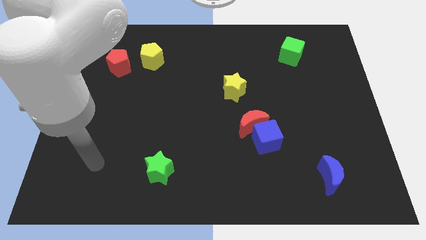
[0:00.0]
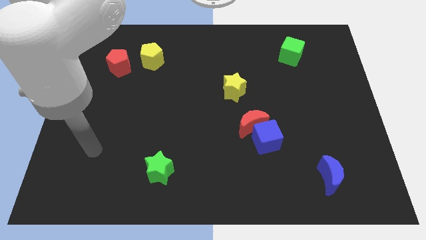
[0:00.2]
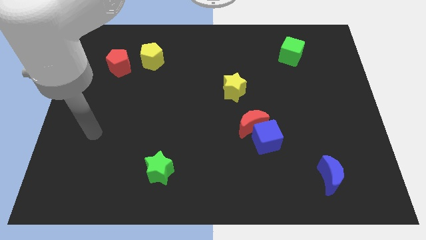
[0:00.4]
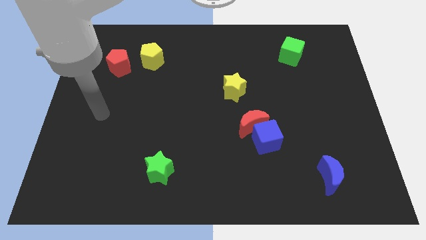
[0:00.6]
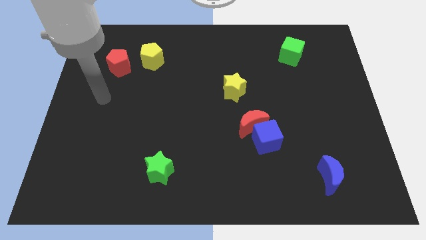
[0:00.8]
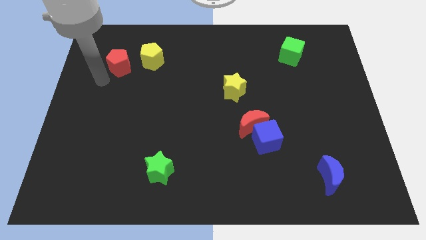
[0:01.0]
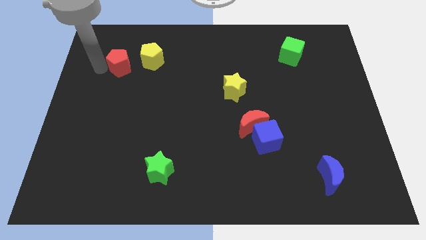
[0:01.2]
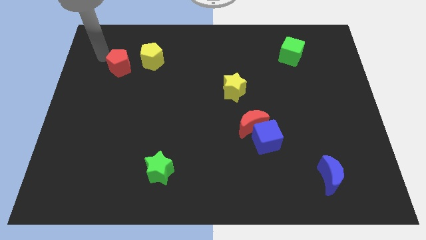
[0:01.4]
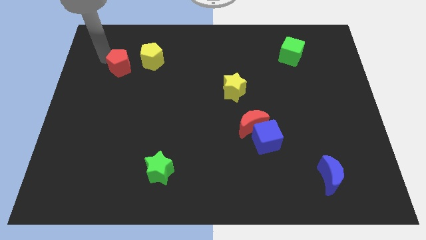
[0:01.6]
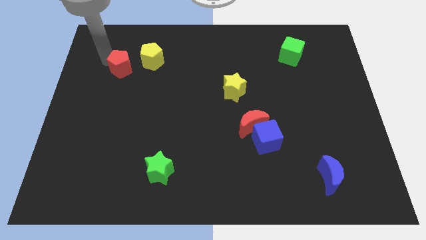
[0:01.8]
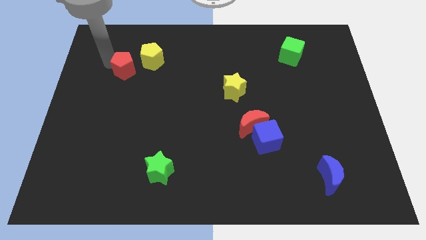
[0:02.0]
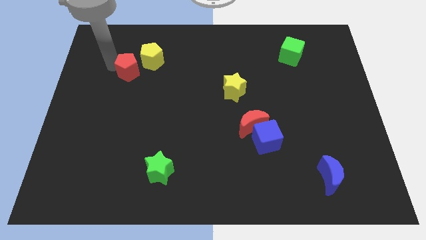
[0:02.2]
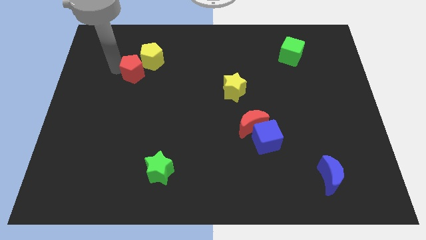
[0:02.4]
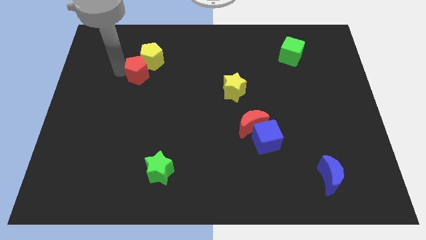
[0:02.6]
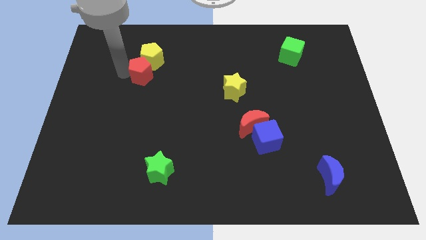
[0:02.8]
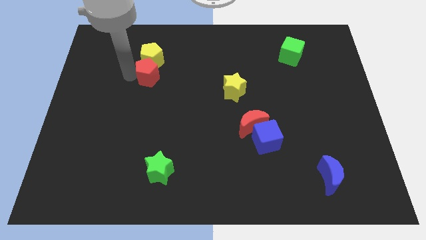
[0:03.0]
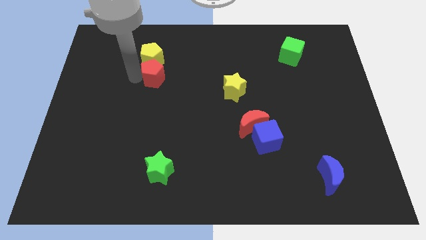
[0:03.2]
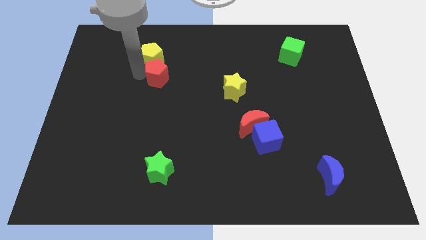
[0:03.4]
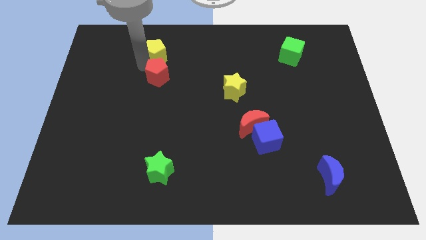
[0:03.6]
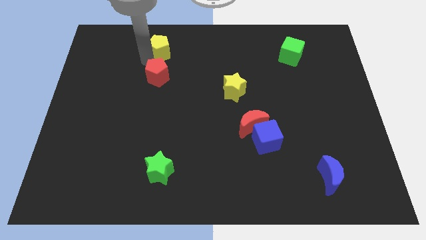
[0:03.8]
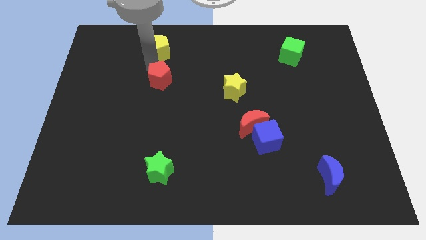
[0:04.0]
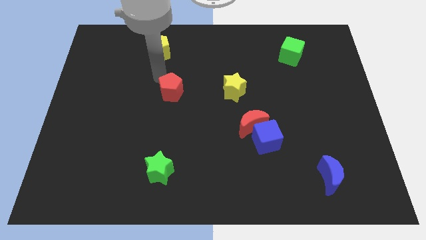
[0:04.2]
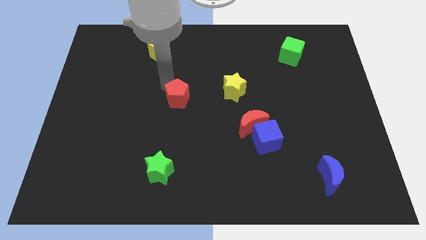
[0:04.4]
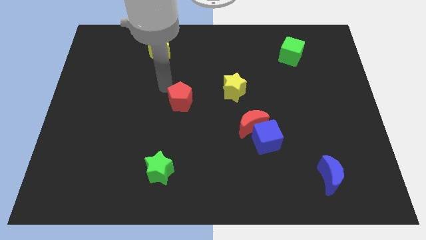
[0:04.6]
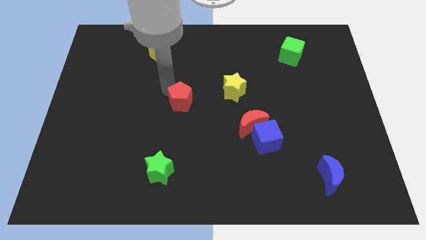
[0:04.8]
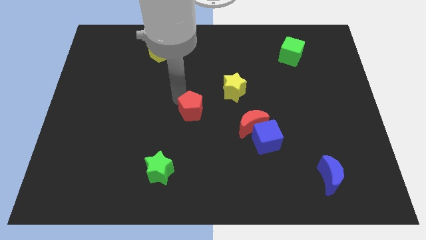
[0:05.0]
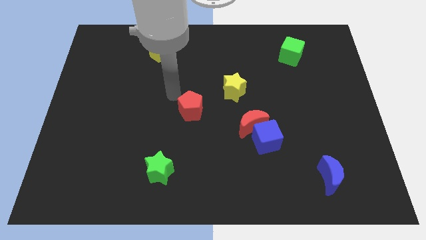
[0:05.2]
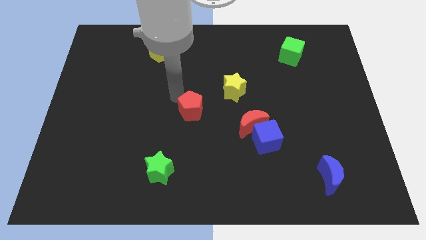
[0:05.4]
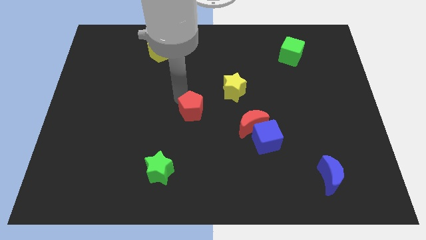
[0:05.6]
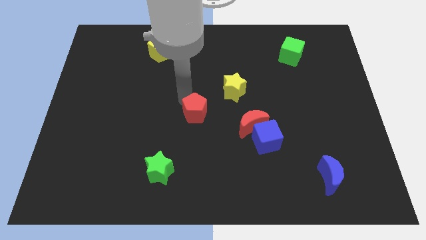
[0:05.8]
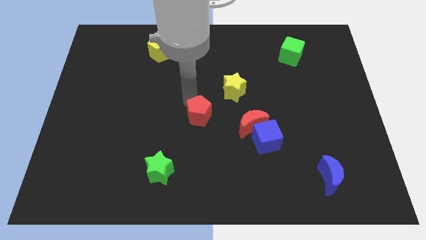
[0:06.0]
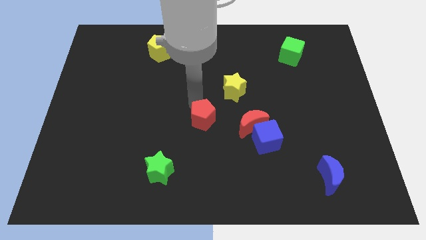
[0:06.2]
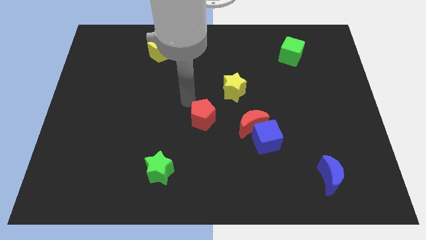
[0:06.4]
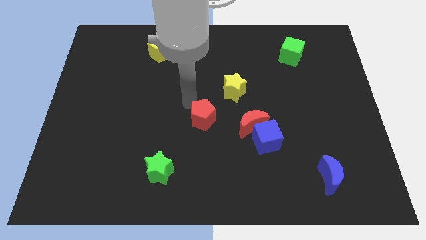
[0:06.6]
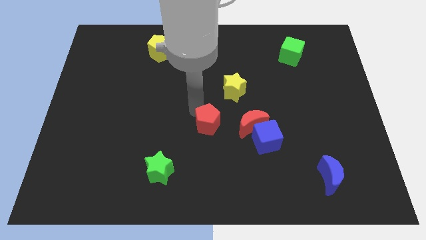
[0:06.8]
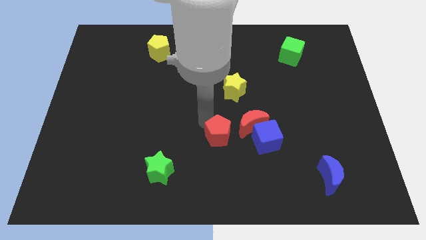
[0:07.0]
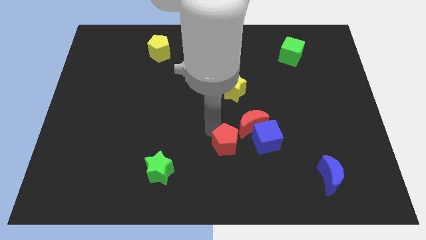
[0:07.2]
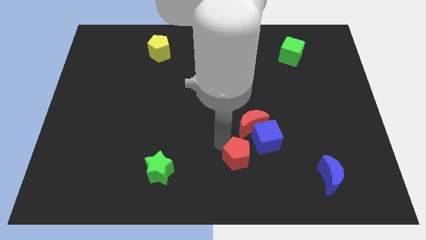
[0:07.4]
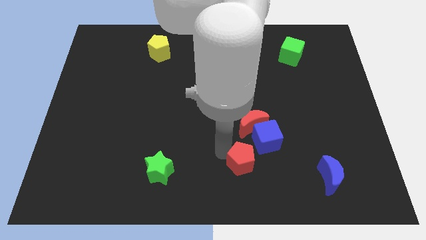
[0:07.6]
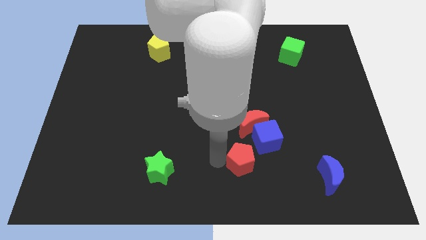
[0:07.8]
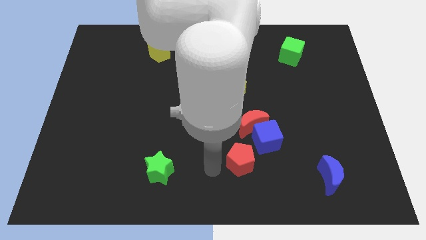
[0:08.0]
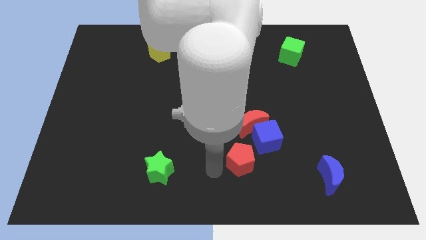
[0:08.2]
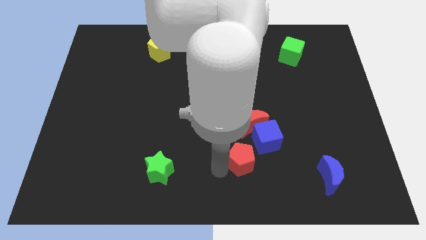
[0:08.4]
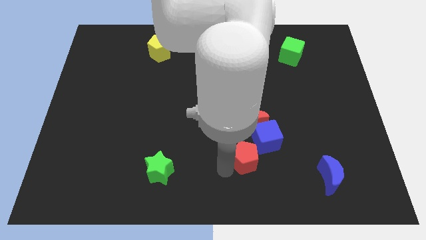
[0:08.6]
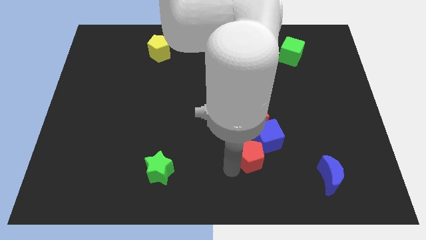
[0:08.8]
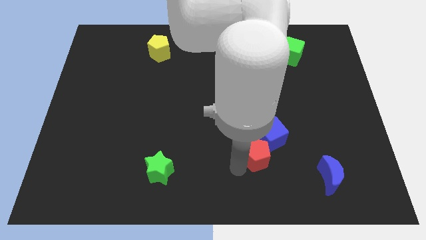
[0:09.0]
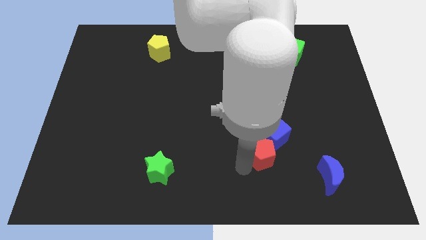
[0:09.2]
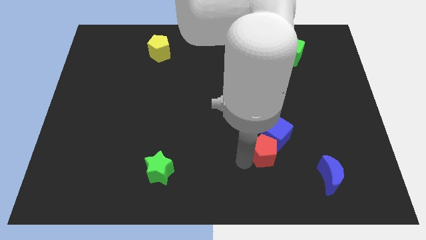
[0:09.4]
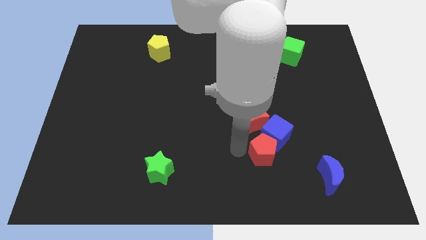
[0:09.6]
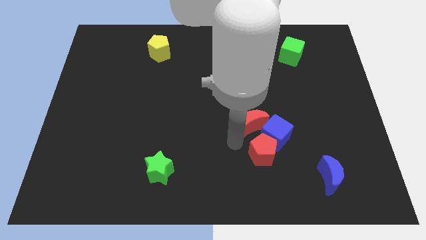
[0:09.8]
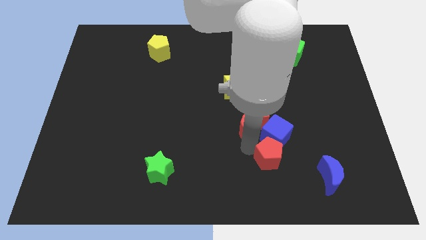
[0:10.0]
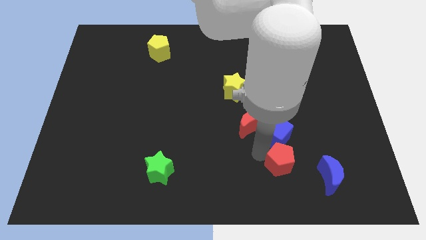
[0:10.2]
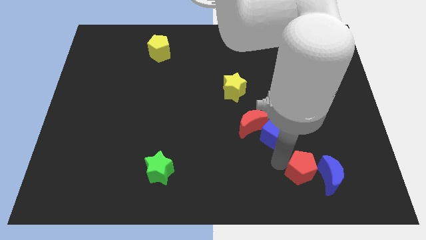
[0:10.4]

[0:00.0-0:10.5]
slide the red pentagon next to the blue moon

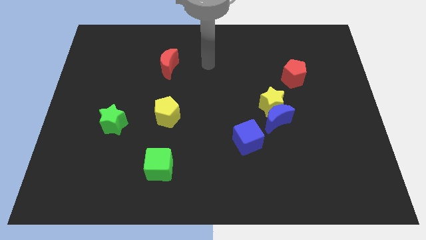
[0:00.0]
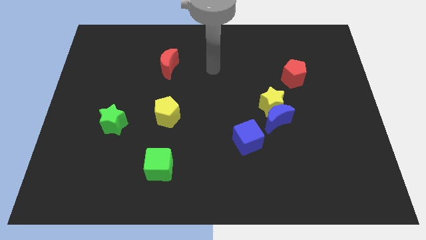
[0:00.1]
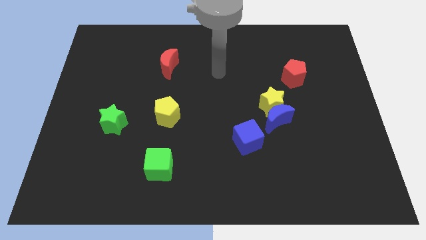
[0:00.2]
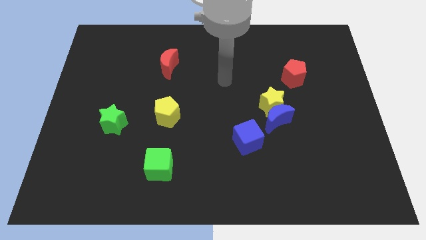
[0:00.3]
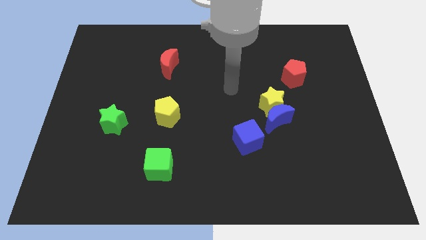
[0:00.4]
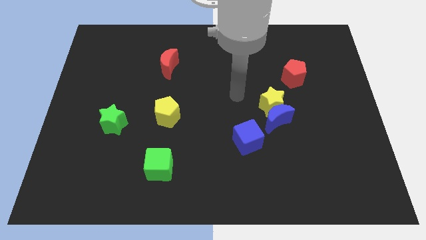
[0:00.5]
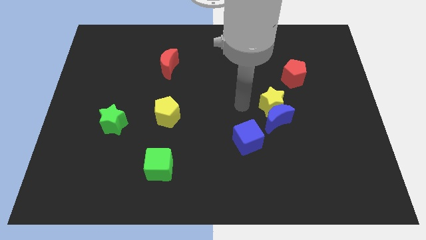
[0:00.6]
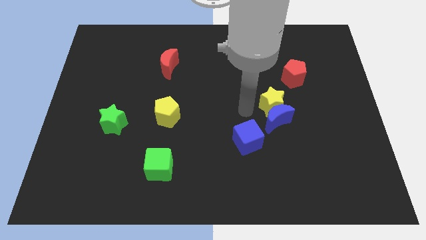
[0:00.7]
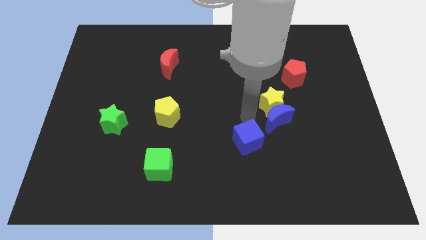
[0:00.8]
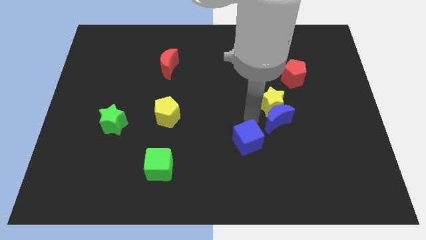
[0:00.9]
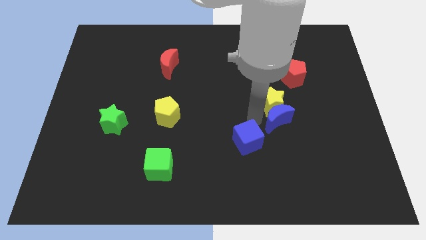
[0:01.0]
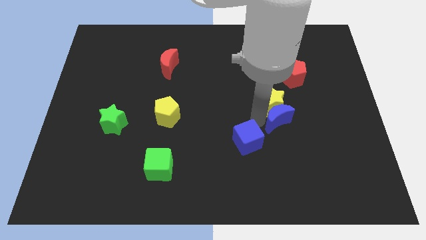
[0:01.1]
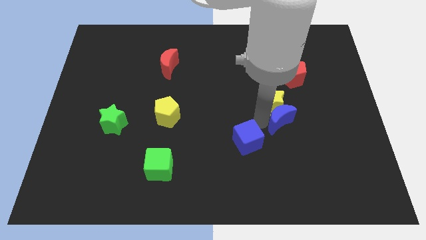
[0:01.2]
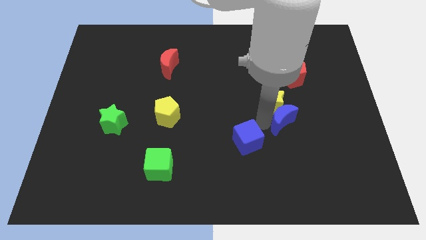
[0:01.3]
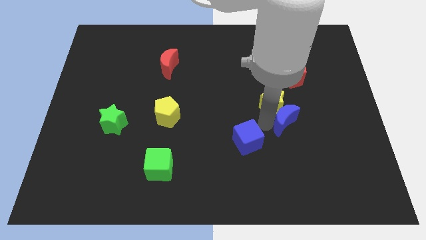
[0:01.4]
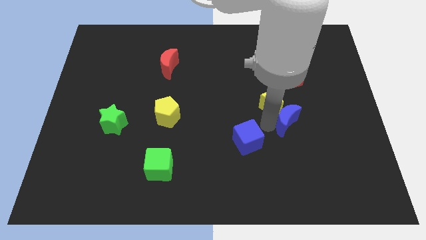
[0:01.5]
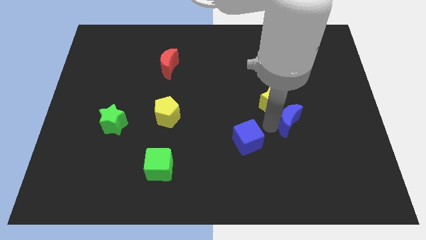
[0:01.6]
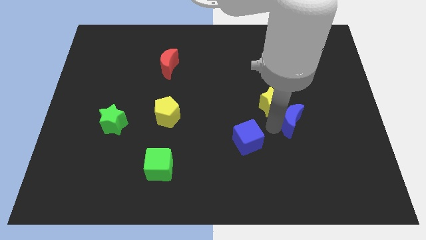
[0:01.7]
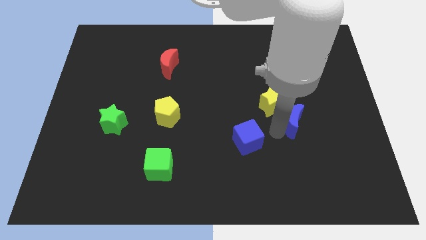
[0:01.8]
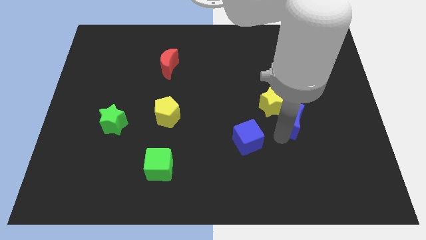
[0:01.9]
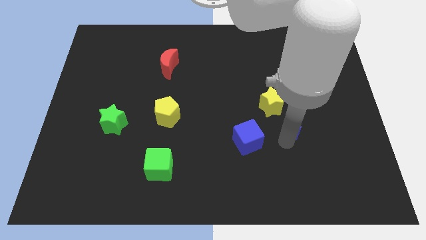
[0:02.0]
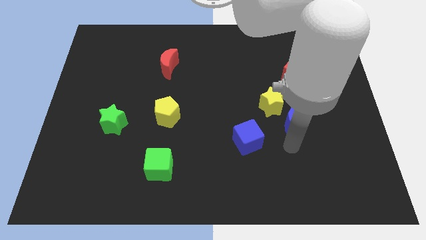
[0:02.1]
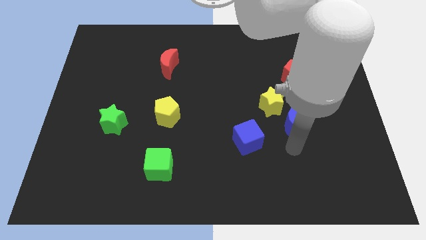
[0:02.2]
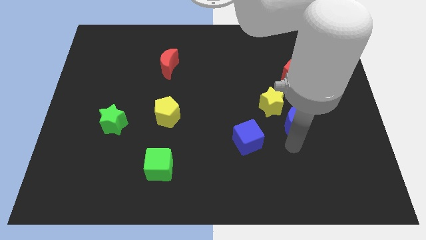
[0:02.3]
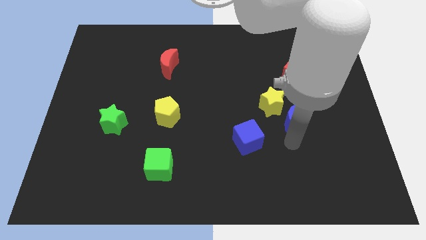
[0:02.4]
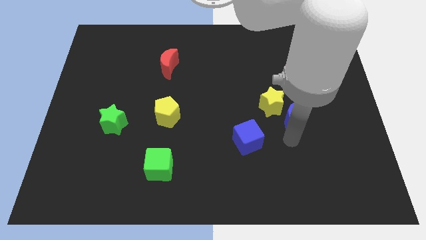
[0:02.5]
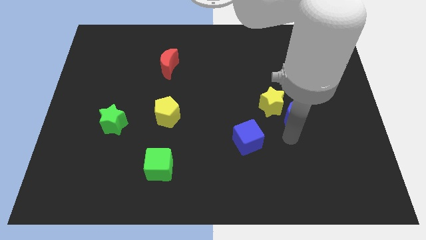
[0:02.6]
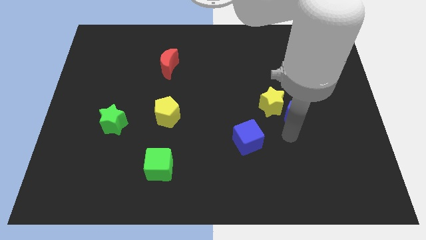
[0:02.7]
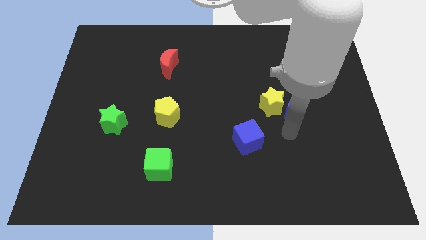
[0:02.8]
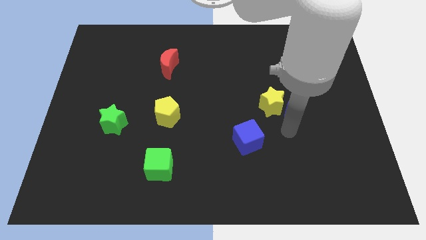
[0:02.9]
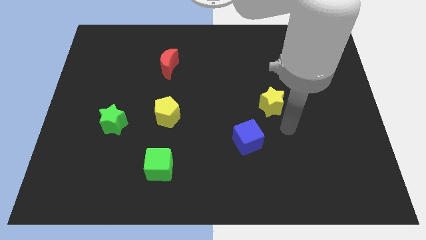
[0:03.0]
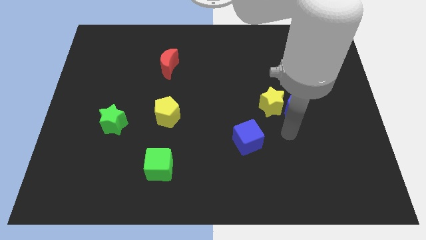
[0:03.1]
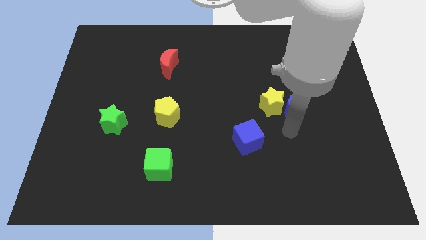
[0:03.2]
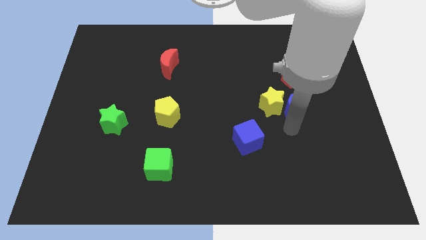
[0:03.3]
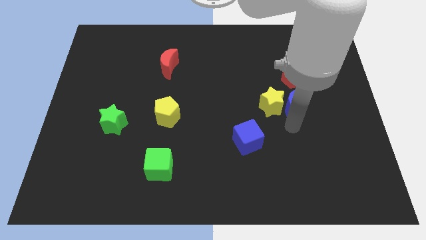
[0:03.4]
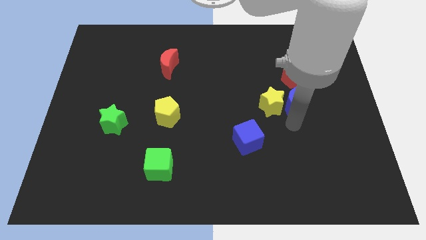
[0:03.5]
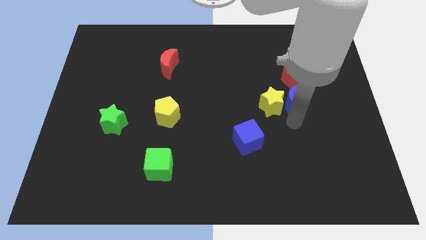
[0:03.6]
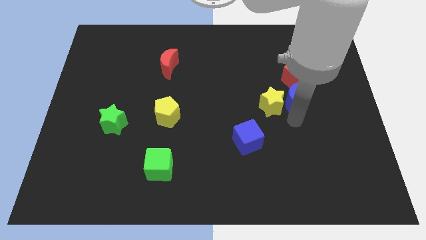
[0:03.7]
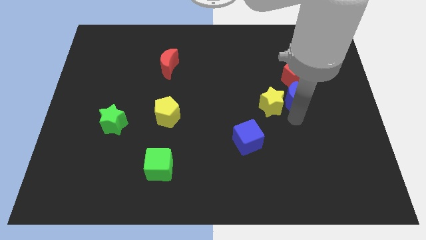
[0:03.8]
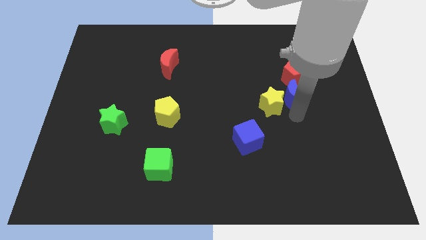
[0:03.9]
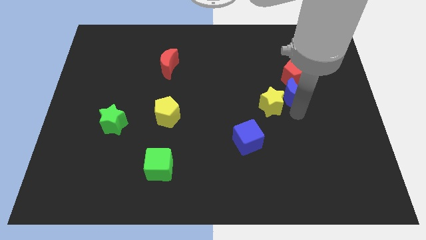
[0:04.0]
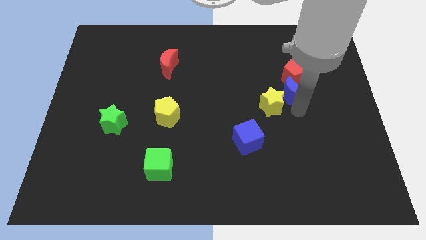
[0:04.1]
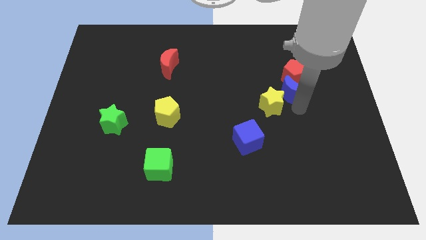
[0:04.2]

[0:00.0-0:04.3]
slide the blue moon to the red pentagon
